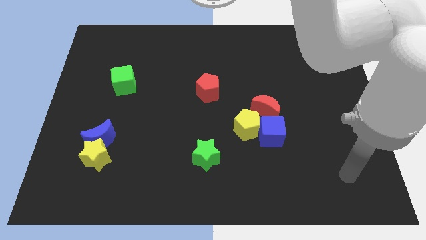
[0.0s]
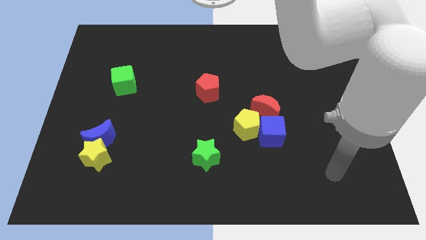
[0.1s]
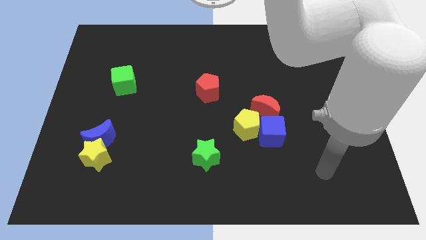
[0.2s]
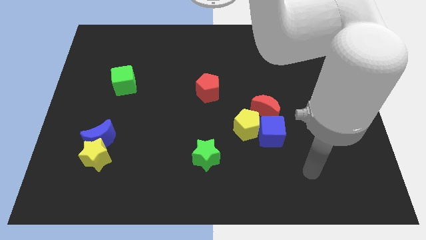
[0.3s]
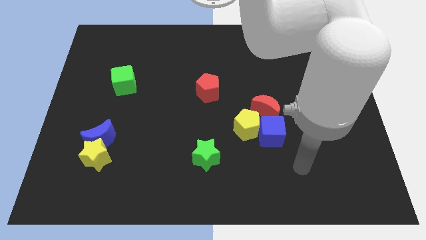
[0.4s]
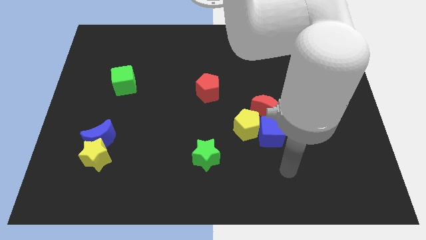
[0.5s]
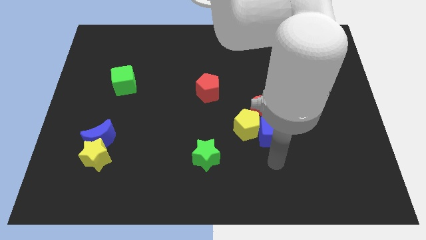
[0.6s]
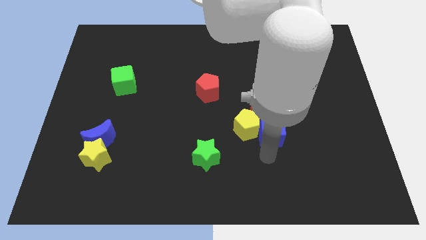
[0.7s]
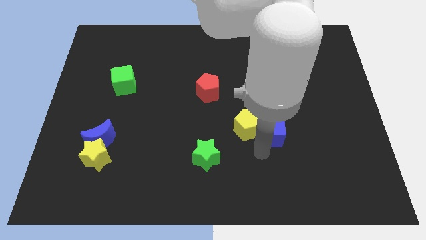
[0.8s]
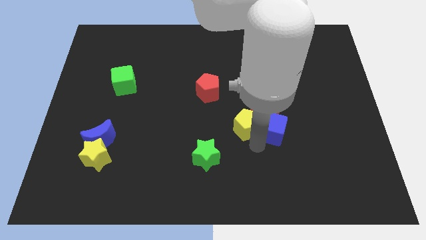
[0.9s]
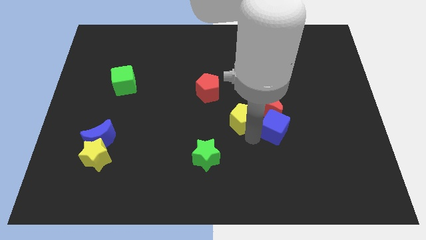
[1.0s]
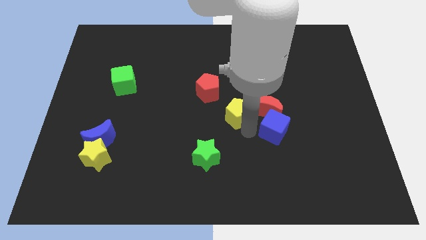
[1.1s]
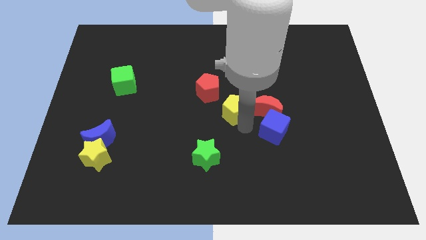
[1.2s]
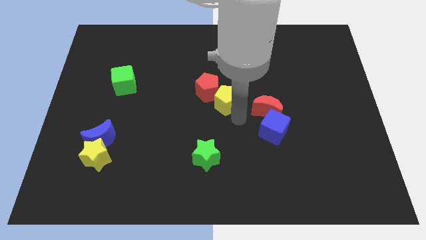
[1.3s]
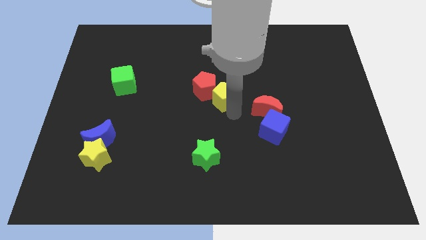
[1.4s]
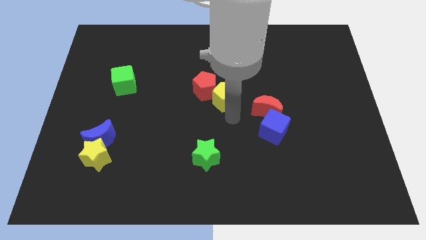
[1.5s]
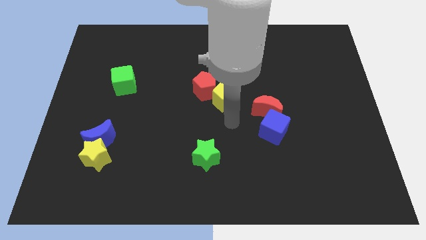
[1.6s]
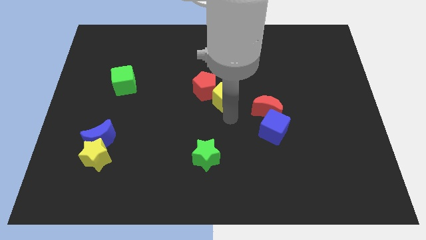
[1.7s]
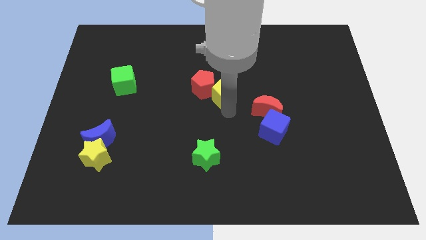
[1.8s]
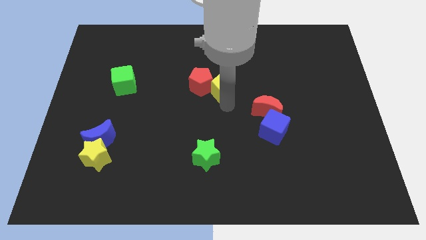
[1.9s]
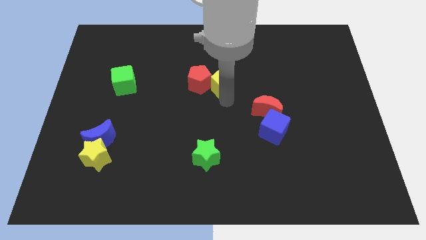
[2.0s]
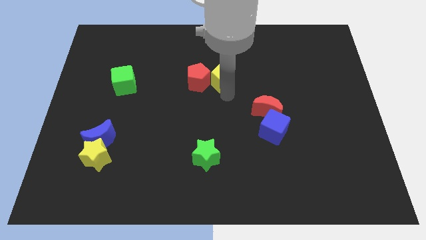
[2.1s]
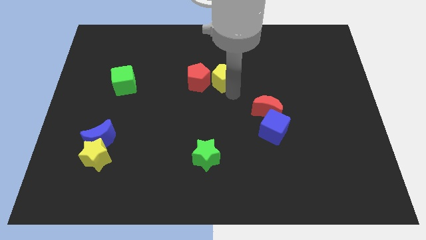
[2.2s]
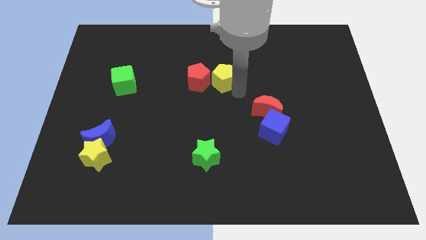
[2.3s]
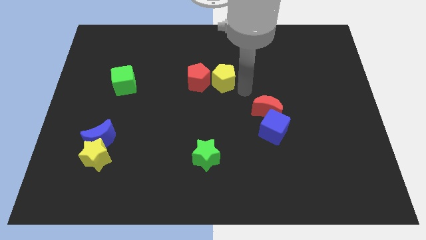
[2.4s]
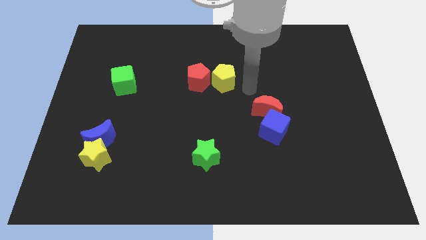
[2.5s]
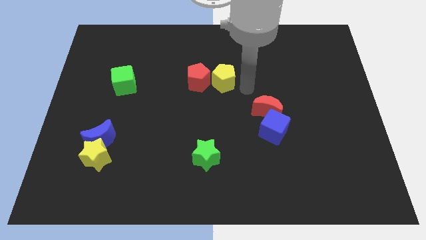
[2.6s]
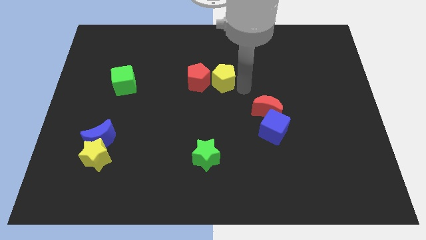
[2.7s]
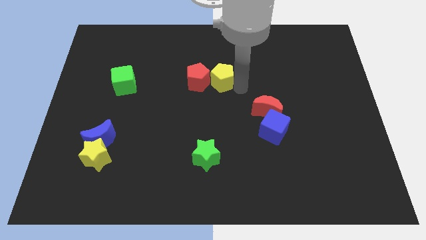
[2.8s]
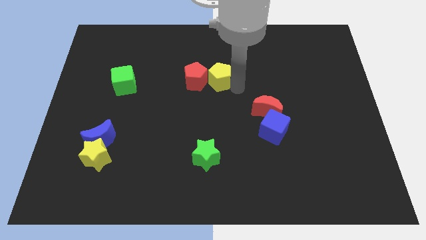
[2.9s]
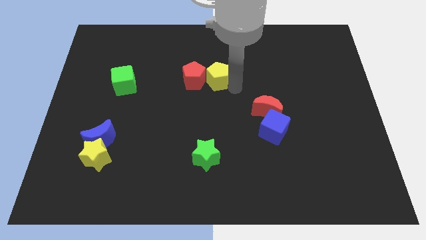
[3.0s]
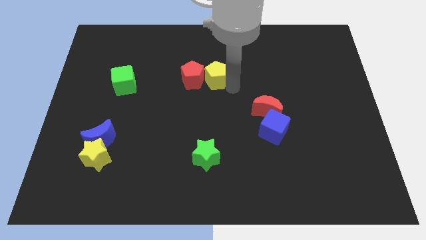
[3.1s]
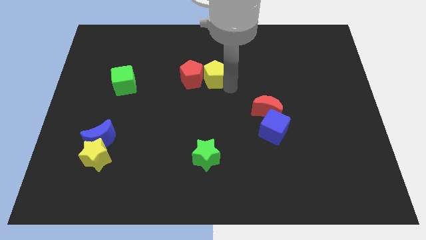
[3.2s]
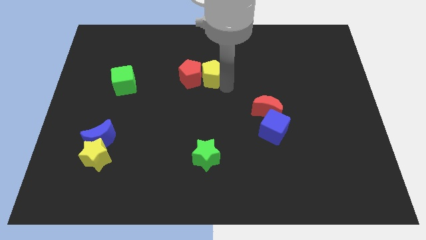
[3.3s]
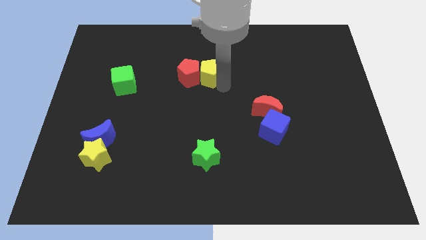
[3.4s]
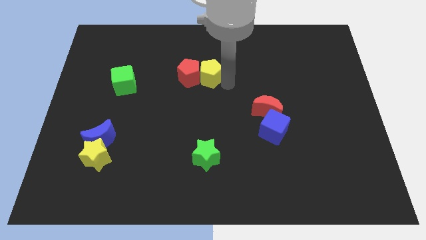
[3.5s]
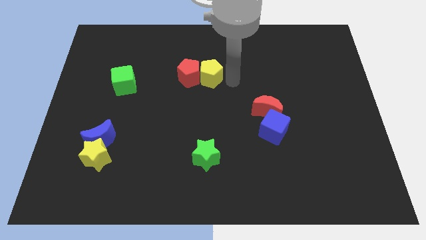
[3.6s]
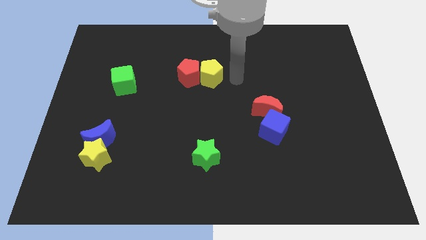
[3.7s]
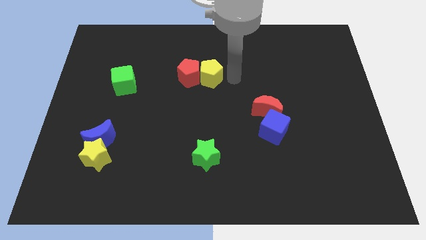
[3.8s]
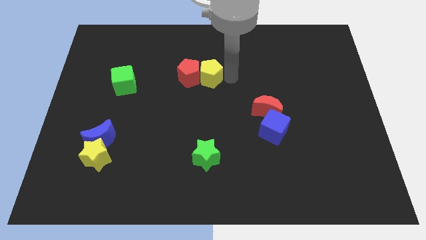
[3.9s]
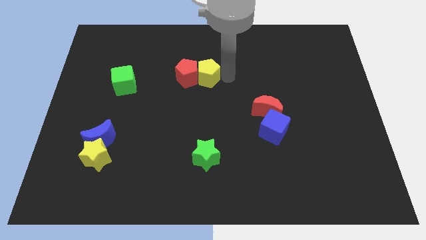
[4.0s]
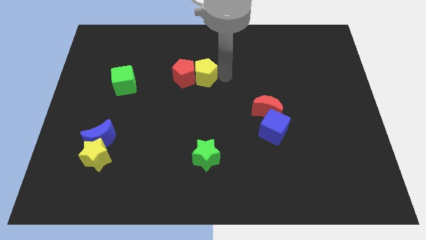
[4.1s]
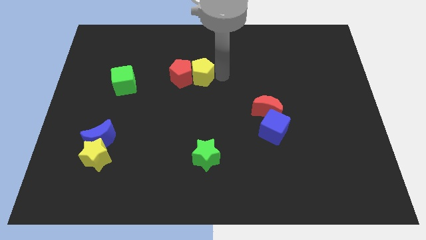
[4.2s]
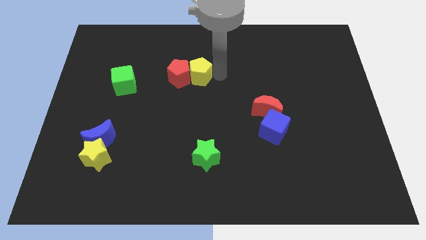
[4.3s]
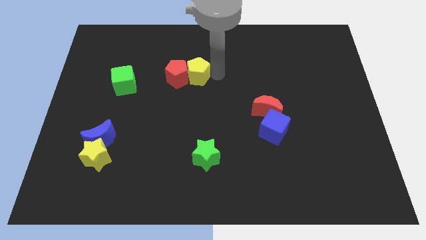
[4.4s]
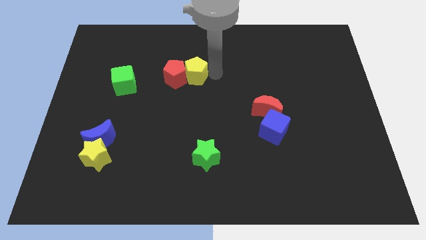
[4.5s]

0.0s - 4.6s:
push the yellow pentagon up and left

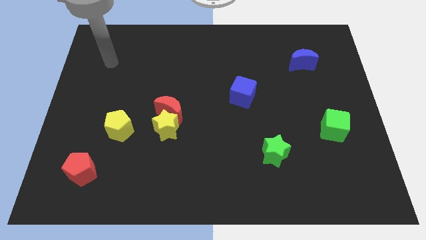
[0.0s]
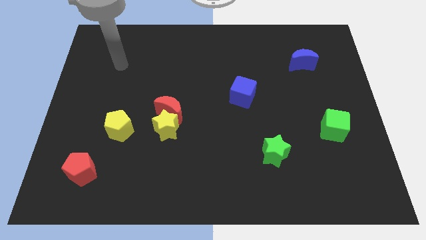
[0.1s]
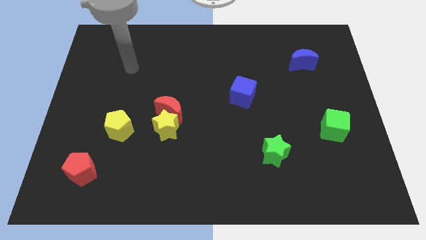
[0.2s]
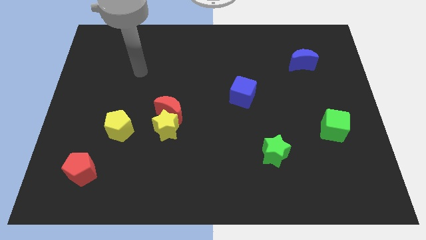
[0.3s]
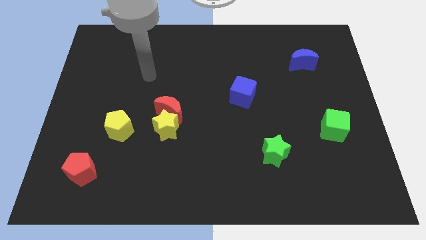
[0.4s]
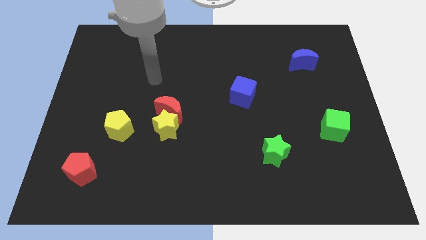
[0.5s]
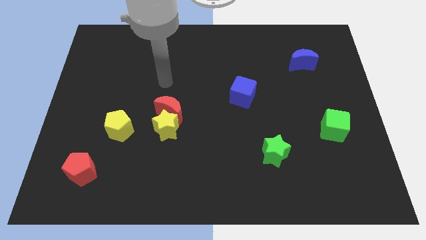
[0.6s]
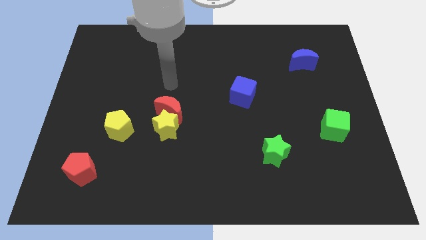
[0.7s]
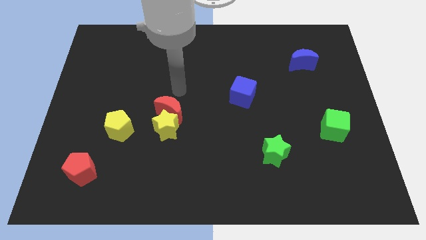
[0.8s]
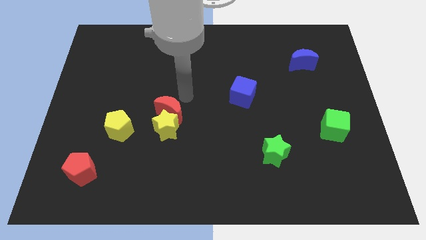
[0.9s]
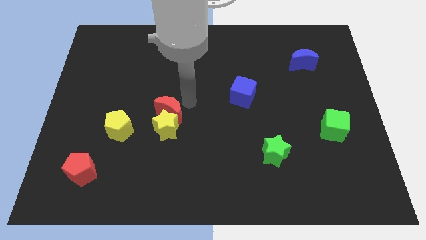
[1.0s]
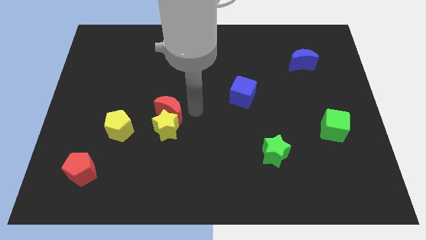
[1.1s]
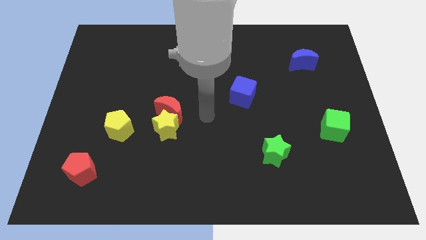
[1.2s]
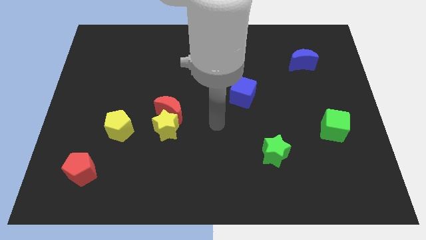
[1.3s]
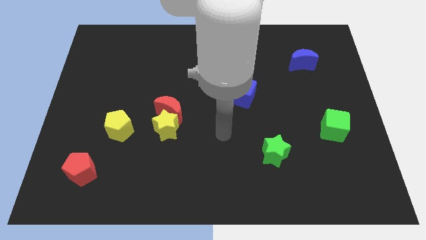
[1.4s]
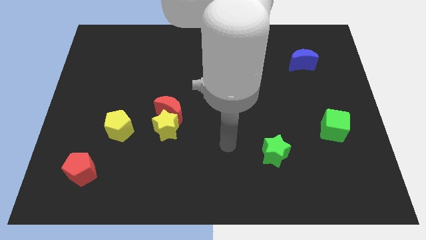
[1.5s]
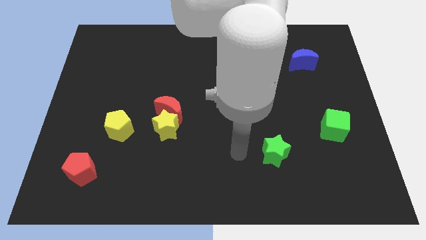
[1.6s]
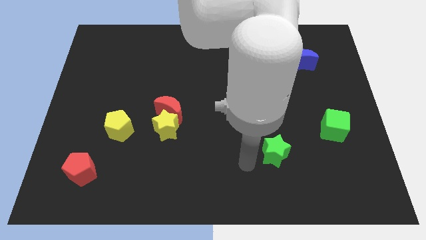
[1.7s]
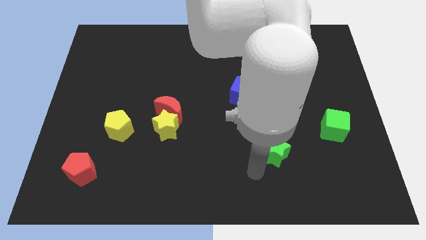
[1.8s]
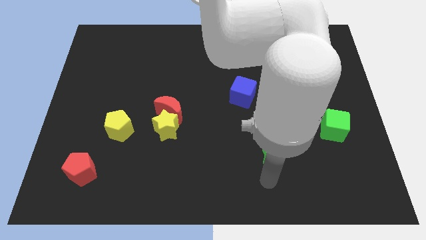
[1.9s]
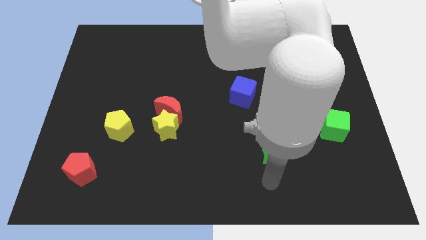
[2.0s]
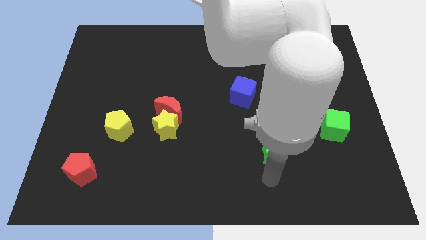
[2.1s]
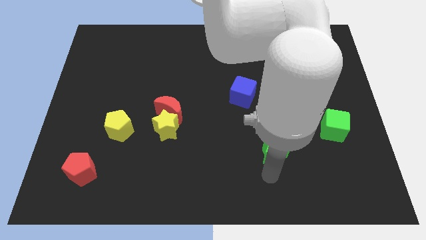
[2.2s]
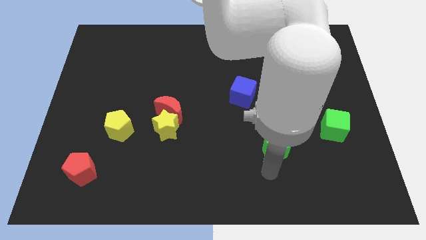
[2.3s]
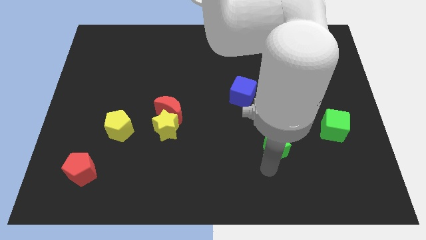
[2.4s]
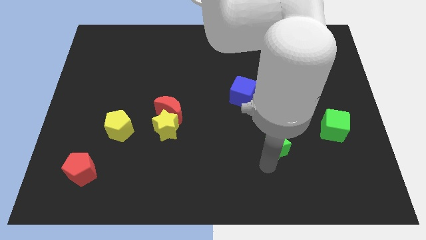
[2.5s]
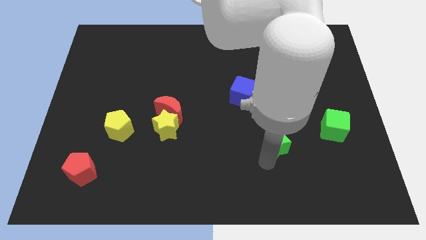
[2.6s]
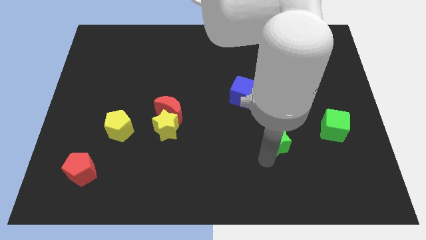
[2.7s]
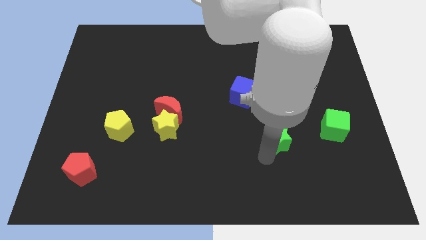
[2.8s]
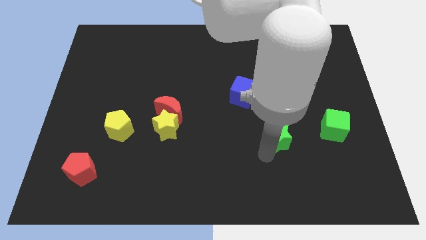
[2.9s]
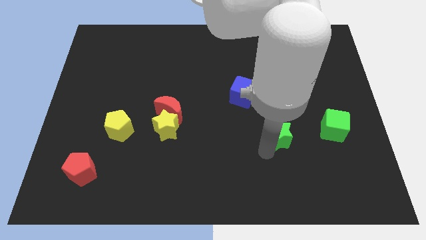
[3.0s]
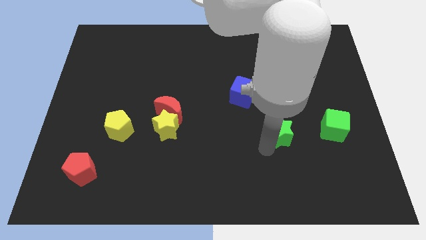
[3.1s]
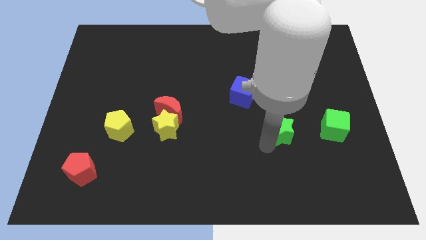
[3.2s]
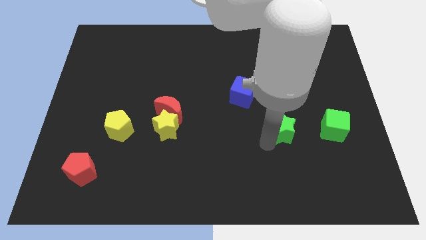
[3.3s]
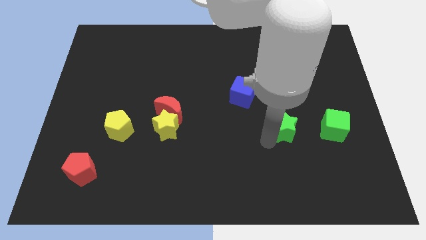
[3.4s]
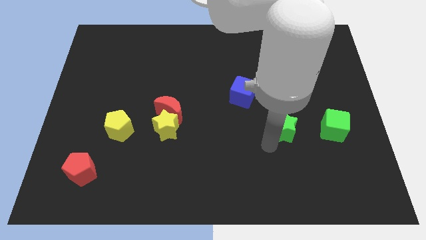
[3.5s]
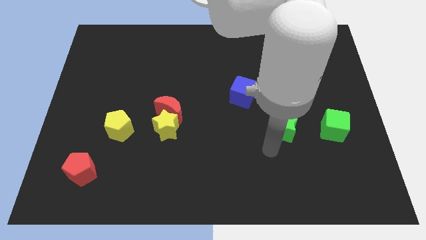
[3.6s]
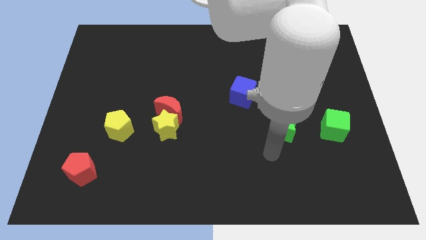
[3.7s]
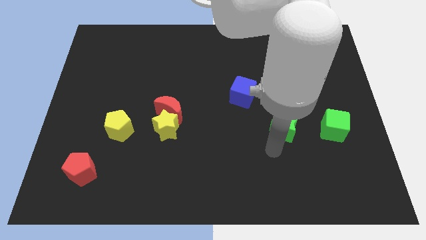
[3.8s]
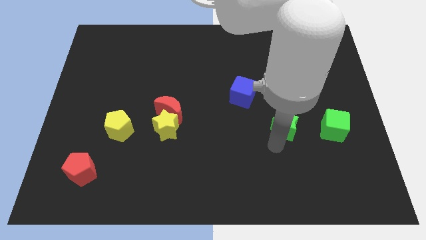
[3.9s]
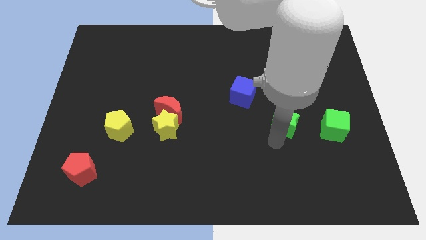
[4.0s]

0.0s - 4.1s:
move the green star slightly up and right diagonally
